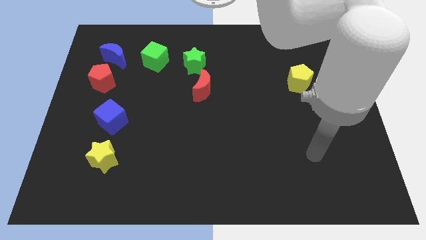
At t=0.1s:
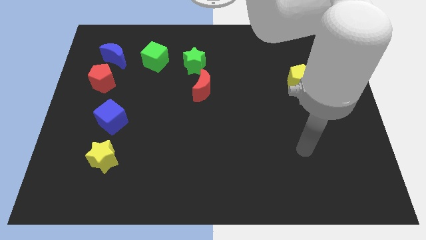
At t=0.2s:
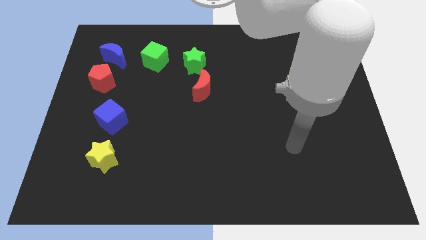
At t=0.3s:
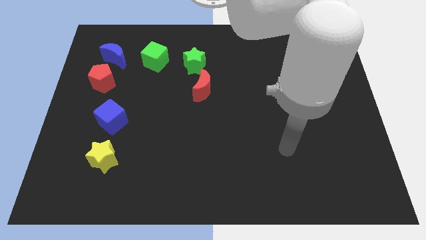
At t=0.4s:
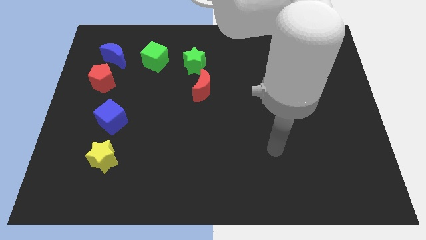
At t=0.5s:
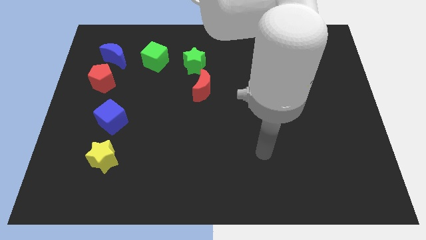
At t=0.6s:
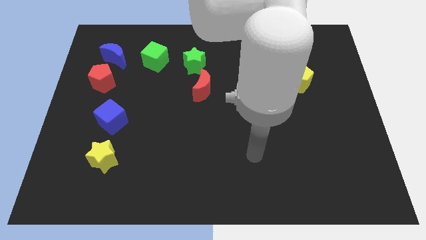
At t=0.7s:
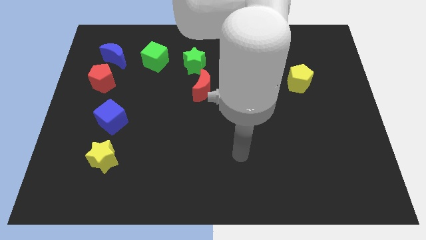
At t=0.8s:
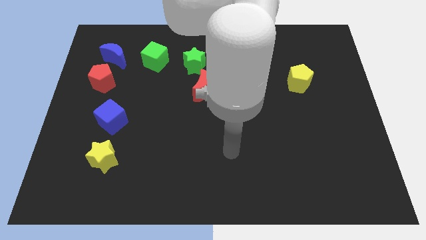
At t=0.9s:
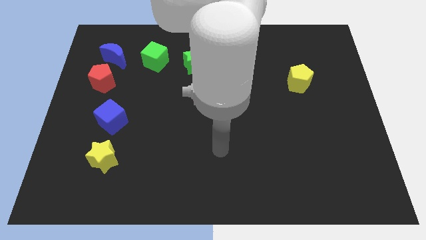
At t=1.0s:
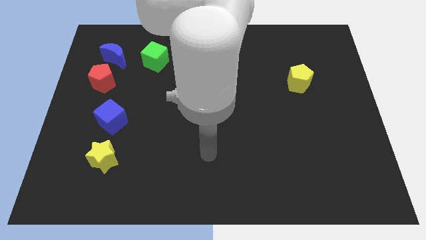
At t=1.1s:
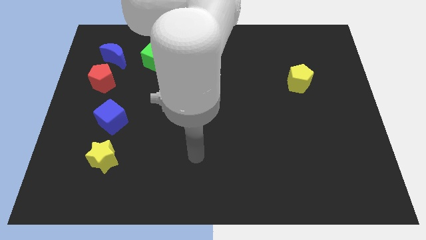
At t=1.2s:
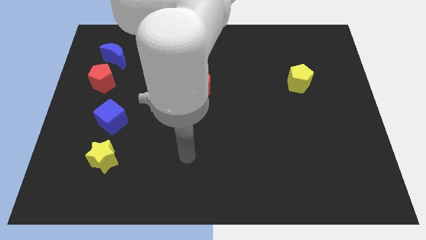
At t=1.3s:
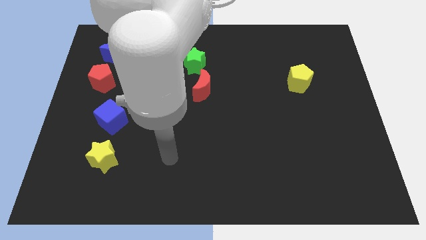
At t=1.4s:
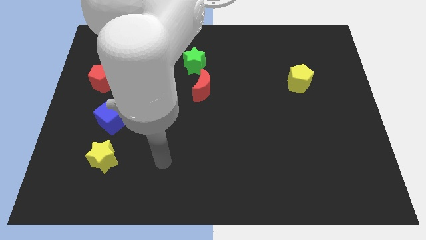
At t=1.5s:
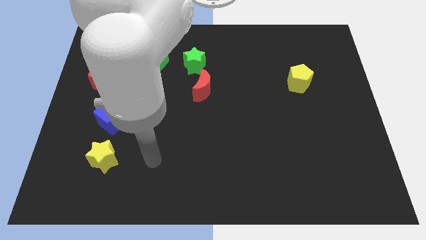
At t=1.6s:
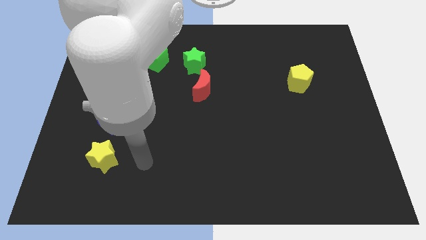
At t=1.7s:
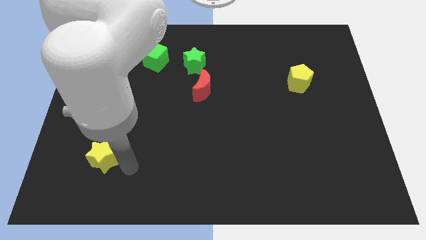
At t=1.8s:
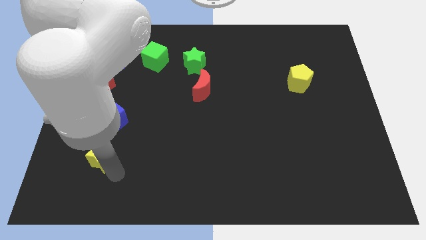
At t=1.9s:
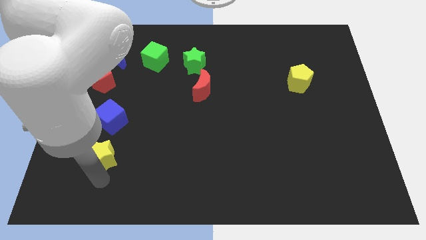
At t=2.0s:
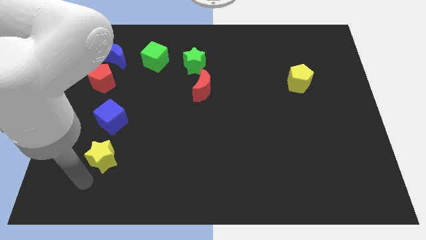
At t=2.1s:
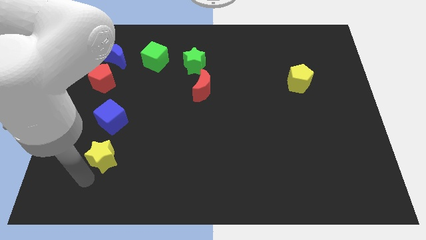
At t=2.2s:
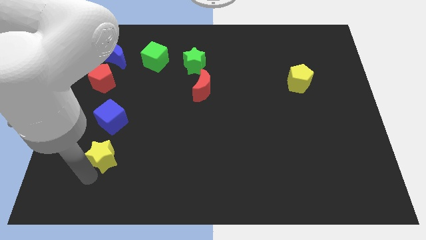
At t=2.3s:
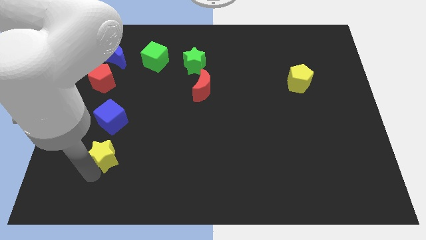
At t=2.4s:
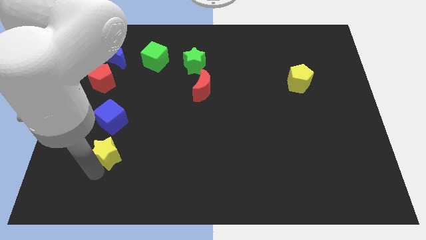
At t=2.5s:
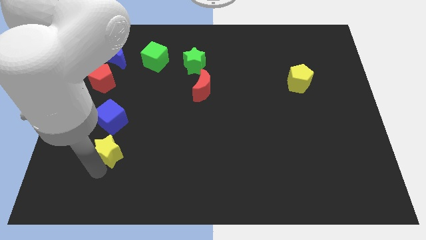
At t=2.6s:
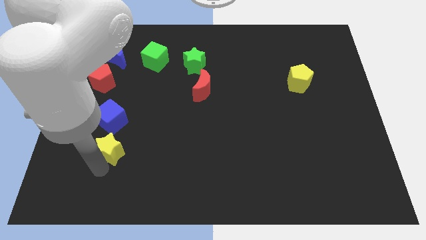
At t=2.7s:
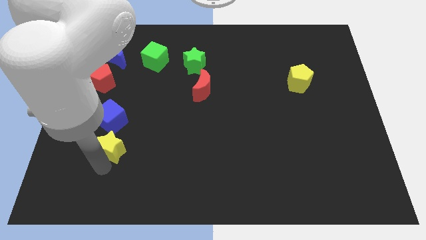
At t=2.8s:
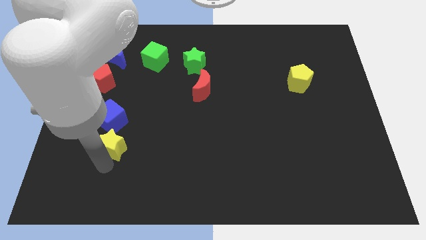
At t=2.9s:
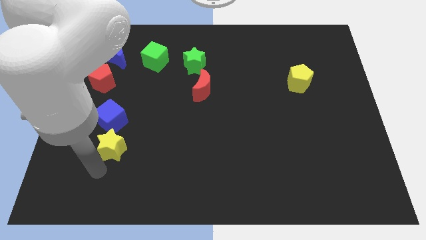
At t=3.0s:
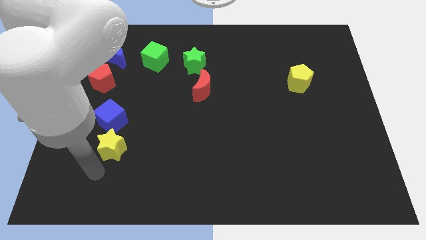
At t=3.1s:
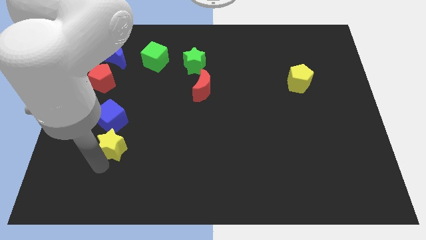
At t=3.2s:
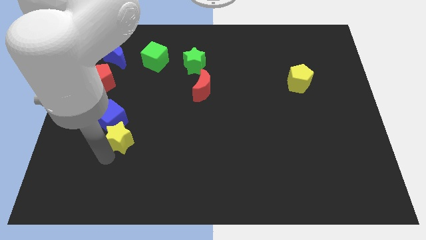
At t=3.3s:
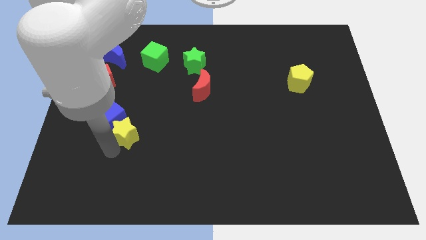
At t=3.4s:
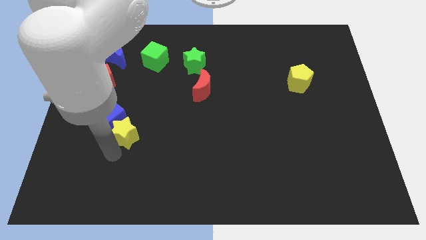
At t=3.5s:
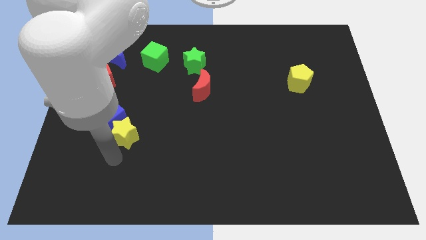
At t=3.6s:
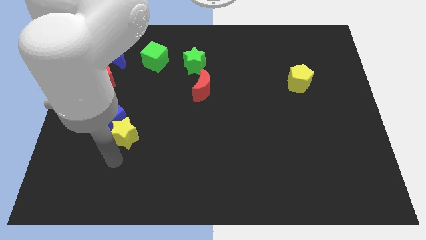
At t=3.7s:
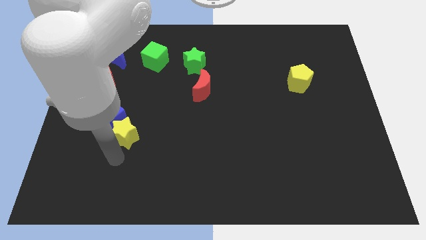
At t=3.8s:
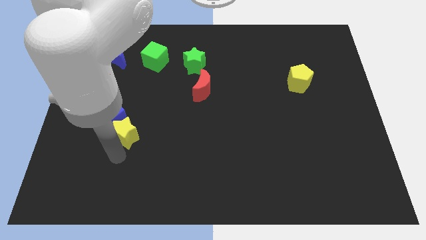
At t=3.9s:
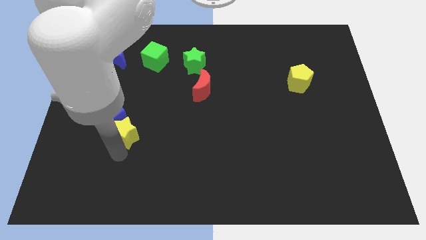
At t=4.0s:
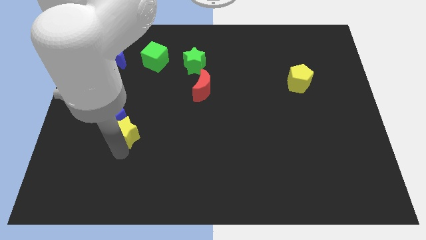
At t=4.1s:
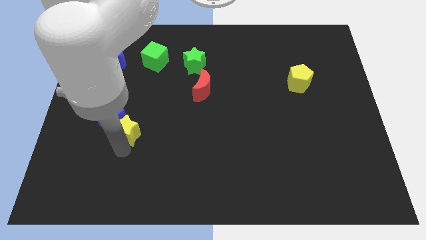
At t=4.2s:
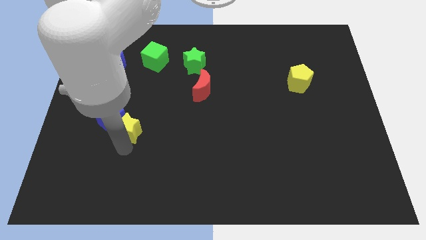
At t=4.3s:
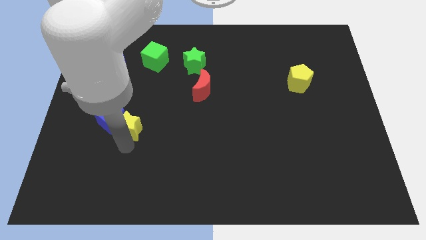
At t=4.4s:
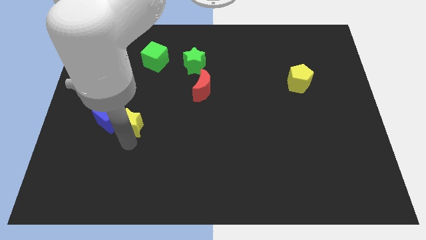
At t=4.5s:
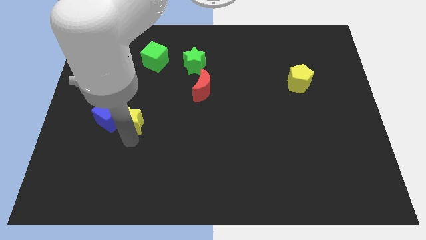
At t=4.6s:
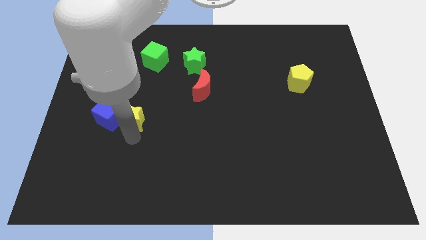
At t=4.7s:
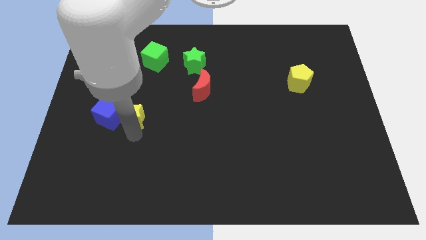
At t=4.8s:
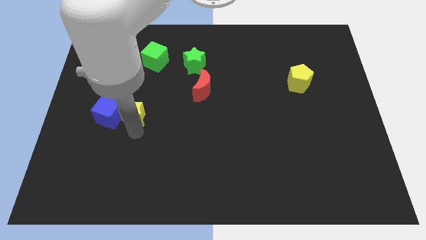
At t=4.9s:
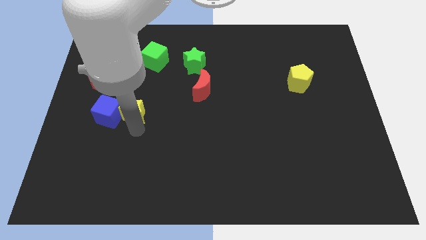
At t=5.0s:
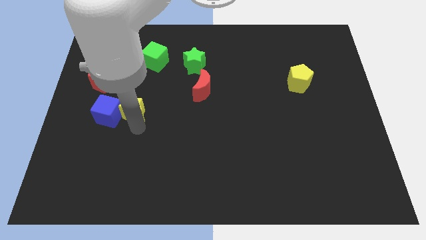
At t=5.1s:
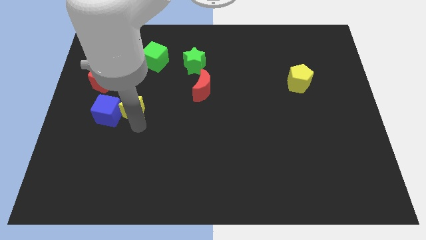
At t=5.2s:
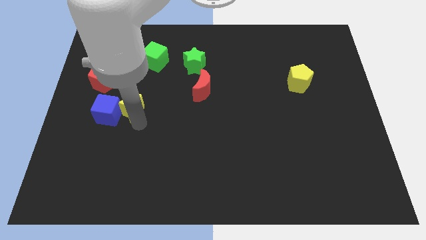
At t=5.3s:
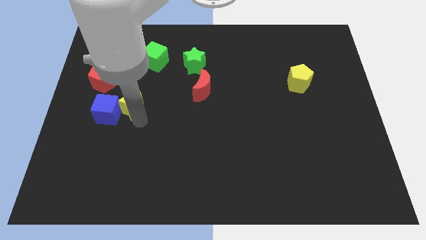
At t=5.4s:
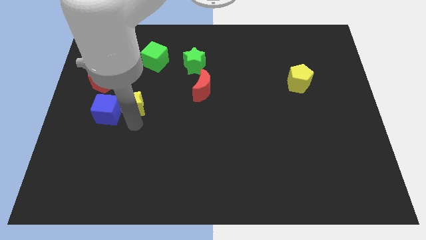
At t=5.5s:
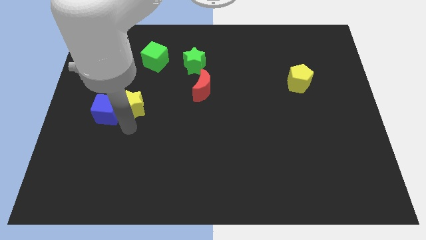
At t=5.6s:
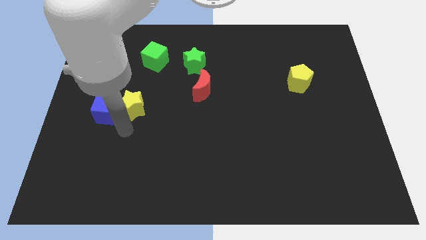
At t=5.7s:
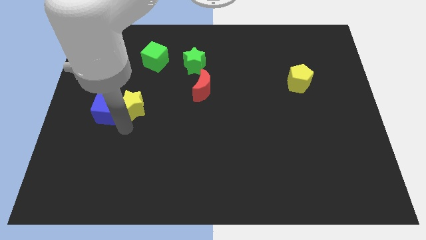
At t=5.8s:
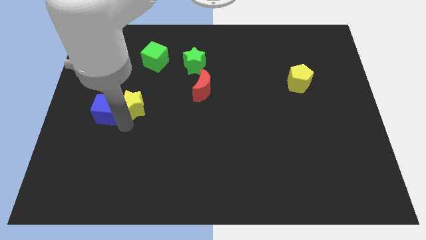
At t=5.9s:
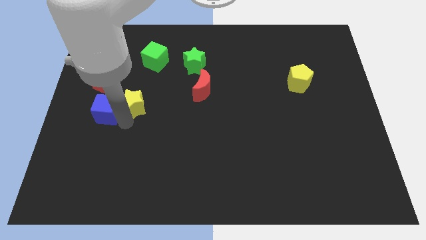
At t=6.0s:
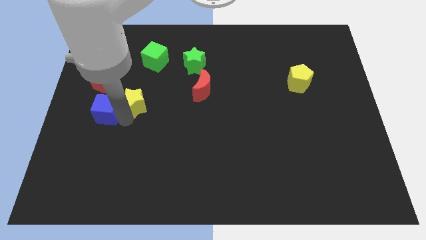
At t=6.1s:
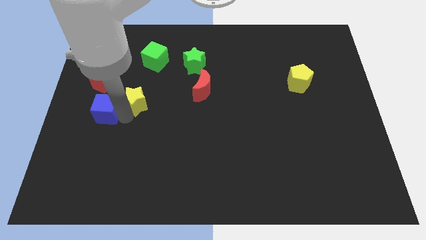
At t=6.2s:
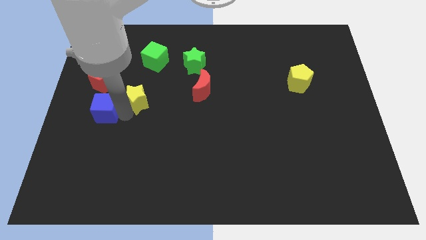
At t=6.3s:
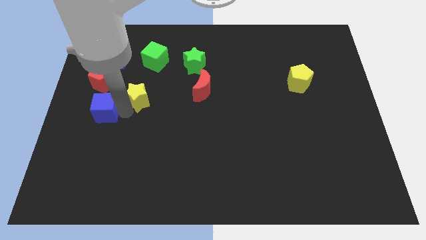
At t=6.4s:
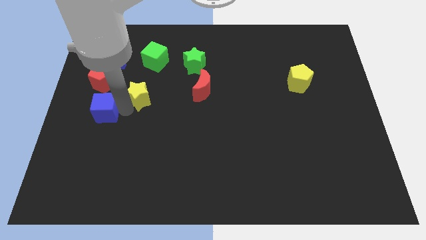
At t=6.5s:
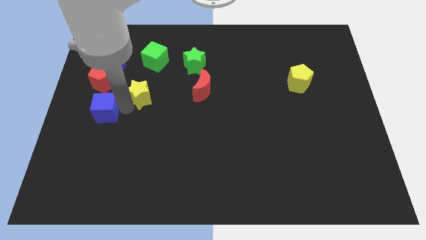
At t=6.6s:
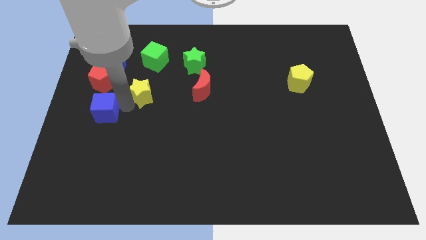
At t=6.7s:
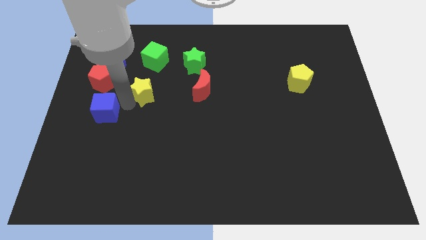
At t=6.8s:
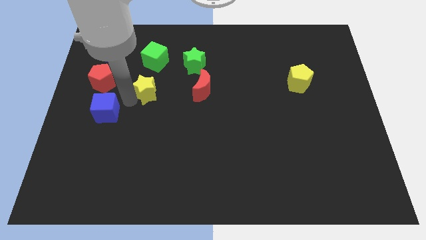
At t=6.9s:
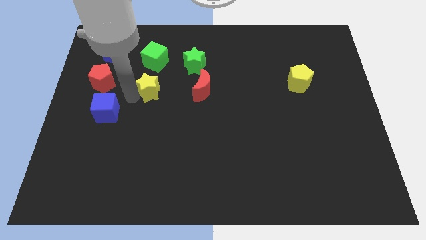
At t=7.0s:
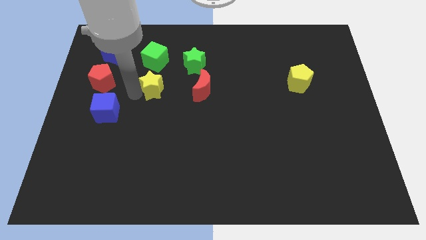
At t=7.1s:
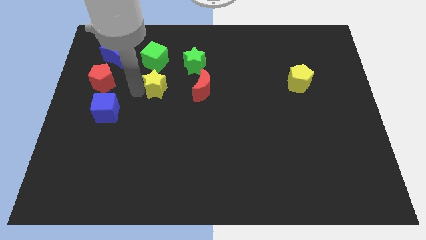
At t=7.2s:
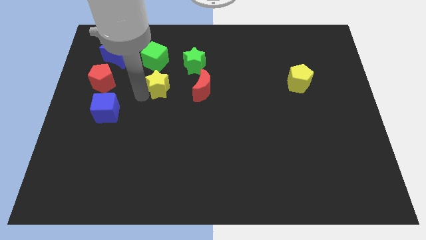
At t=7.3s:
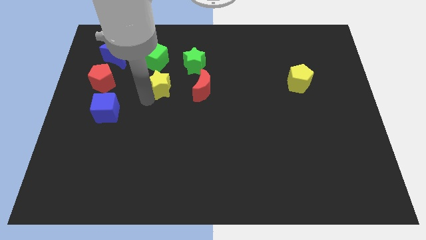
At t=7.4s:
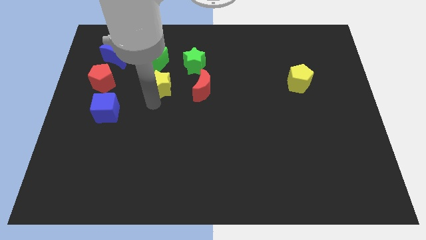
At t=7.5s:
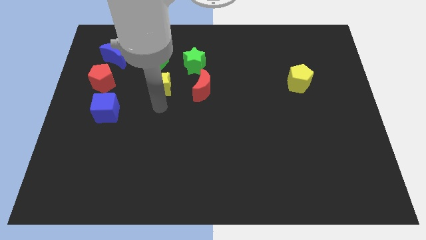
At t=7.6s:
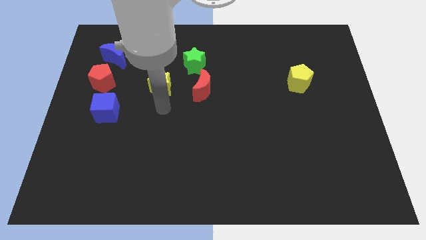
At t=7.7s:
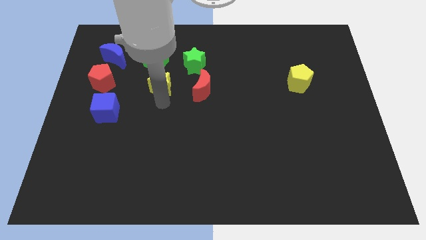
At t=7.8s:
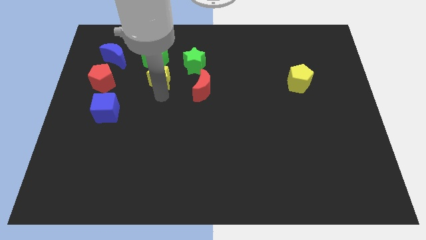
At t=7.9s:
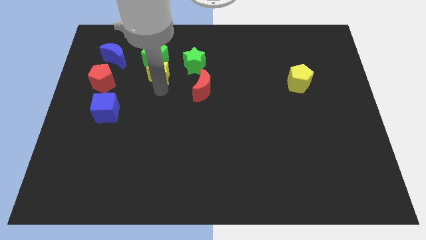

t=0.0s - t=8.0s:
push the yellow star towards the green cube
